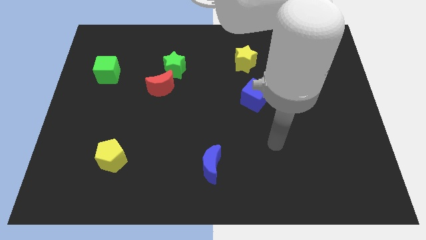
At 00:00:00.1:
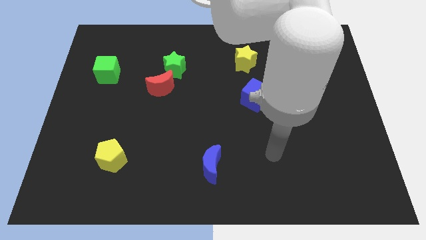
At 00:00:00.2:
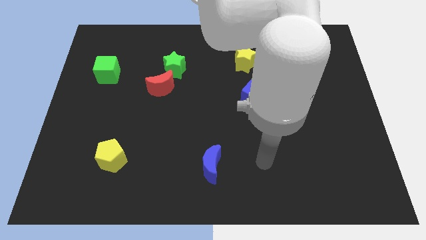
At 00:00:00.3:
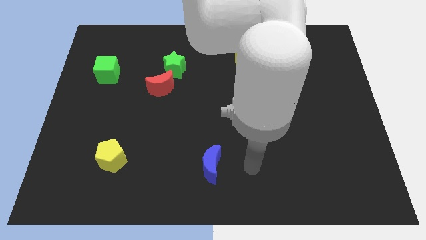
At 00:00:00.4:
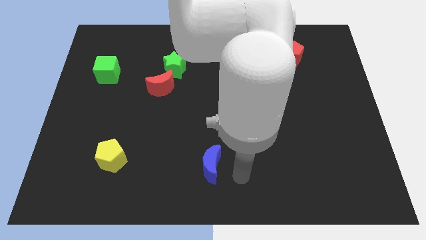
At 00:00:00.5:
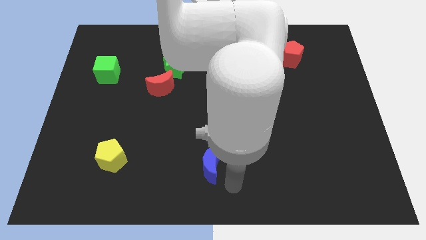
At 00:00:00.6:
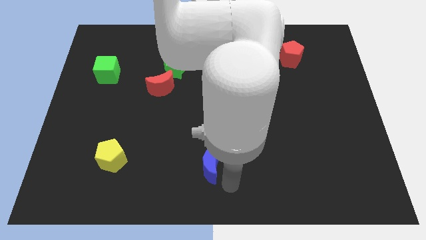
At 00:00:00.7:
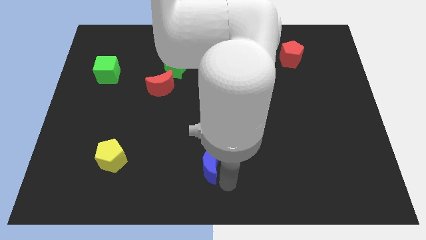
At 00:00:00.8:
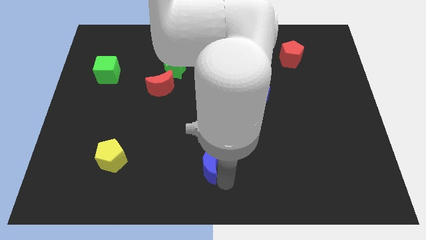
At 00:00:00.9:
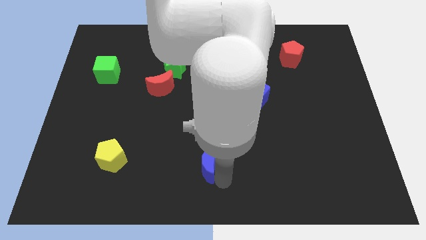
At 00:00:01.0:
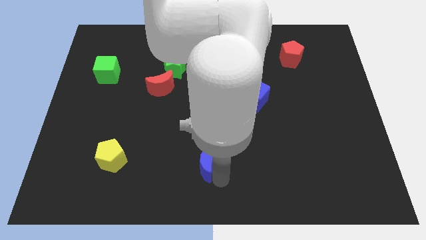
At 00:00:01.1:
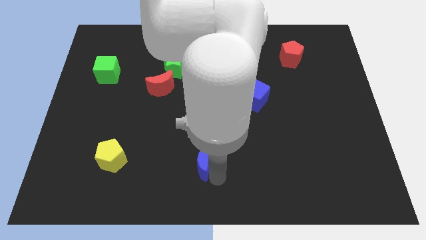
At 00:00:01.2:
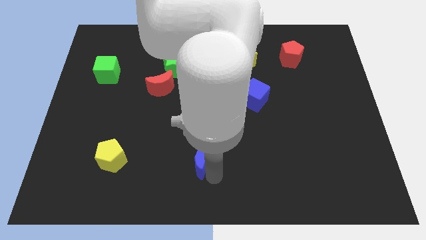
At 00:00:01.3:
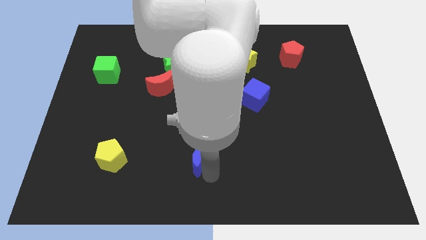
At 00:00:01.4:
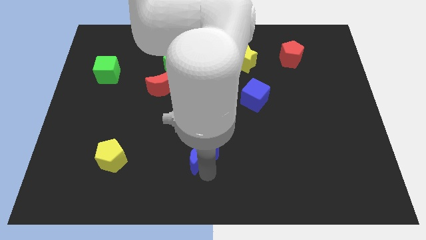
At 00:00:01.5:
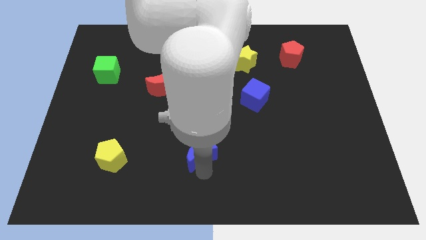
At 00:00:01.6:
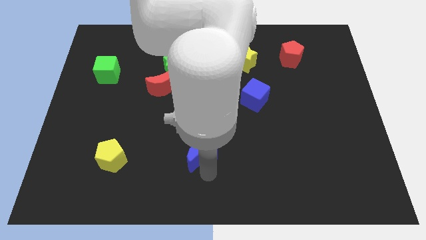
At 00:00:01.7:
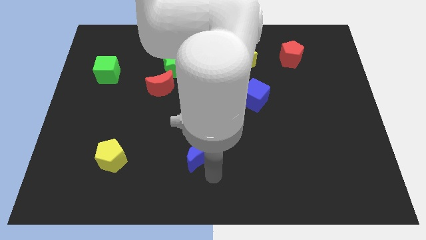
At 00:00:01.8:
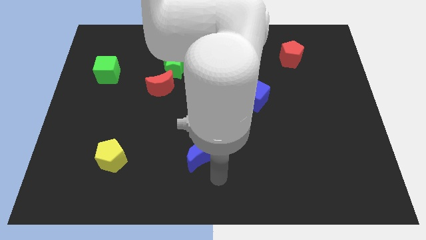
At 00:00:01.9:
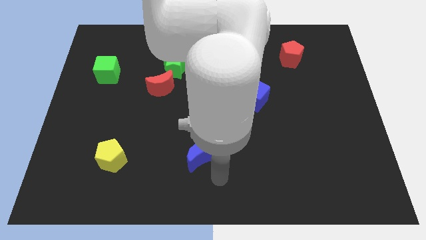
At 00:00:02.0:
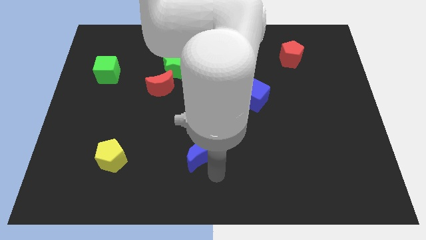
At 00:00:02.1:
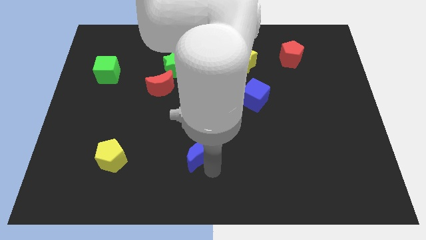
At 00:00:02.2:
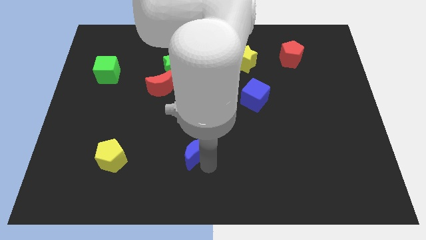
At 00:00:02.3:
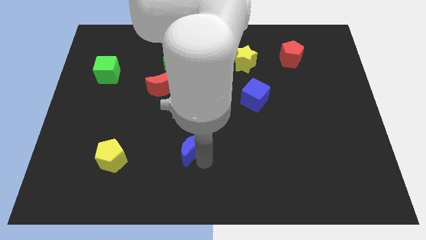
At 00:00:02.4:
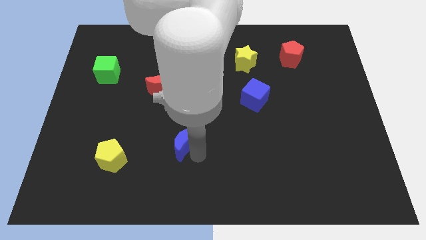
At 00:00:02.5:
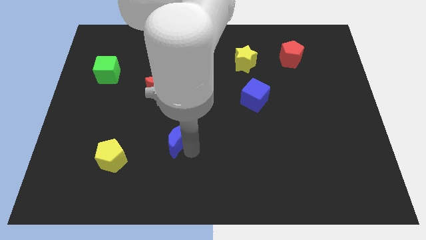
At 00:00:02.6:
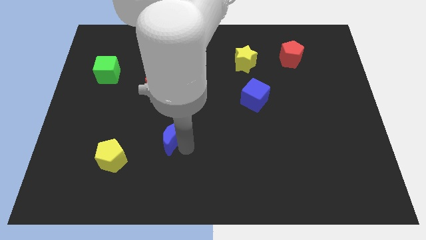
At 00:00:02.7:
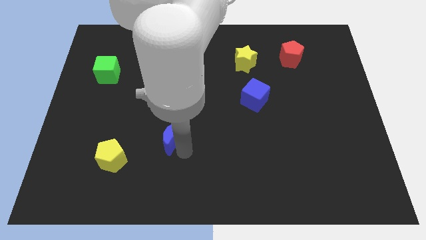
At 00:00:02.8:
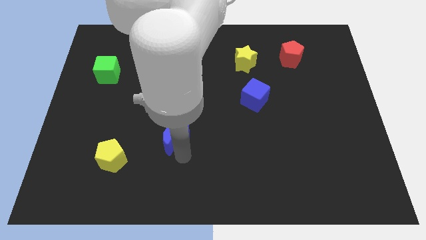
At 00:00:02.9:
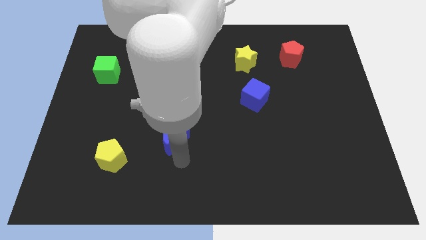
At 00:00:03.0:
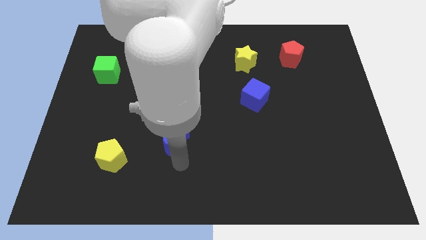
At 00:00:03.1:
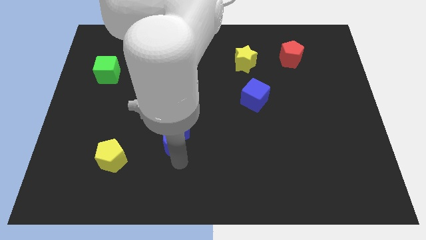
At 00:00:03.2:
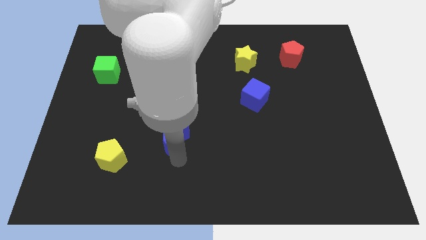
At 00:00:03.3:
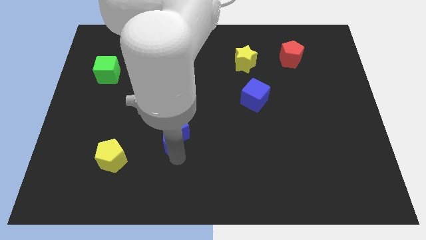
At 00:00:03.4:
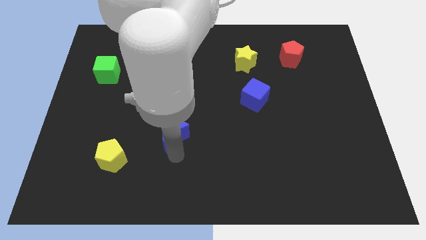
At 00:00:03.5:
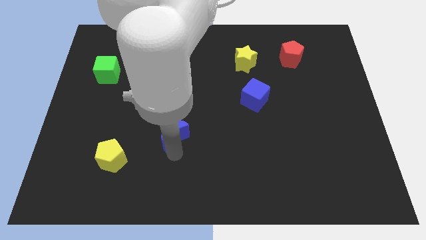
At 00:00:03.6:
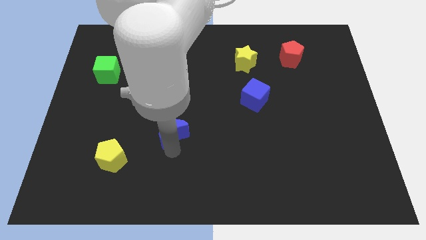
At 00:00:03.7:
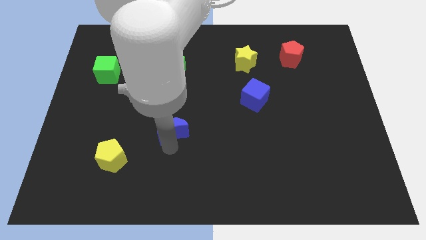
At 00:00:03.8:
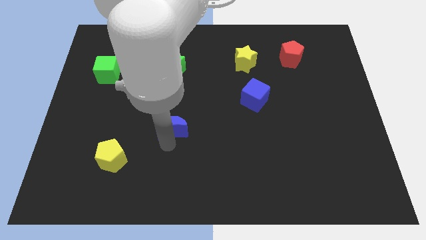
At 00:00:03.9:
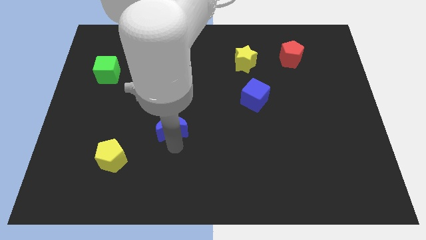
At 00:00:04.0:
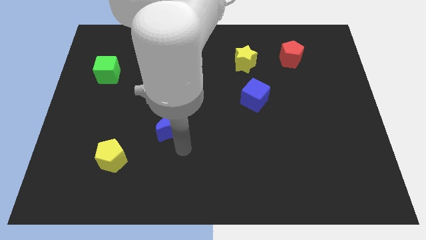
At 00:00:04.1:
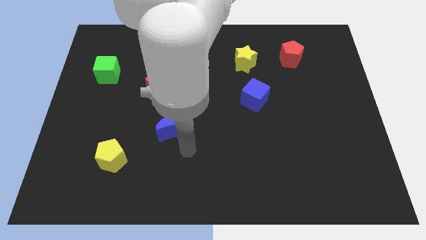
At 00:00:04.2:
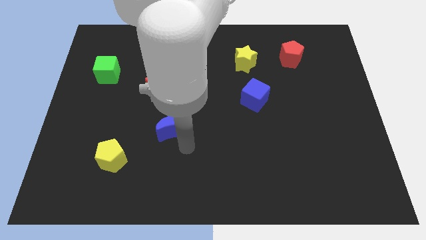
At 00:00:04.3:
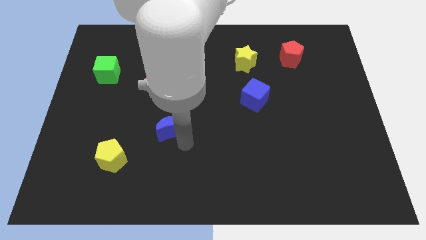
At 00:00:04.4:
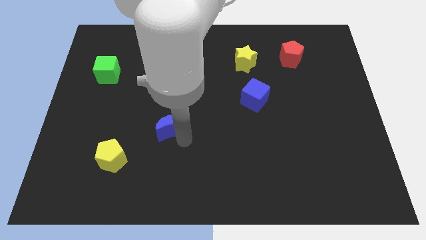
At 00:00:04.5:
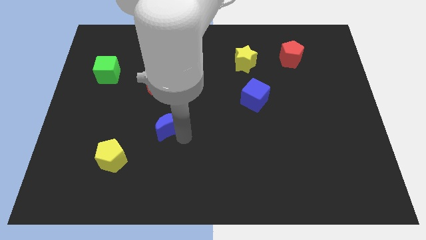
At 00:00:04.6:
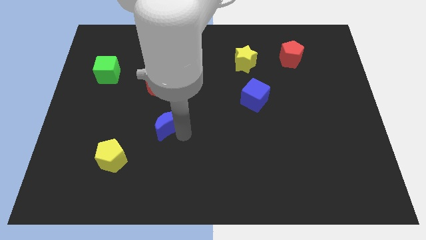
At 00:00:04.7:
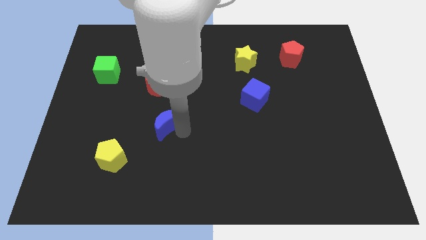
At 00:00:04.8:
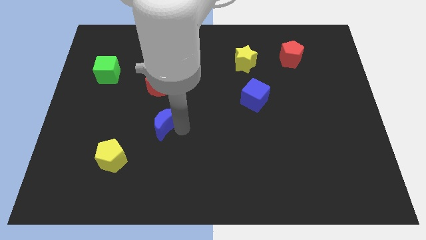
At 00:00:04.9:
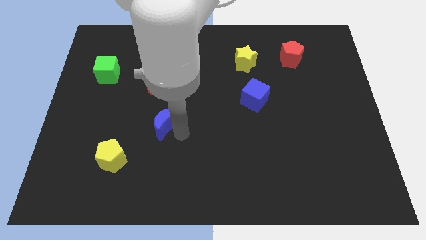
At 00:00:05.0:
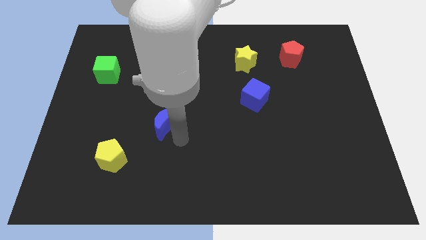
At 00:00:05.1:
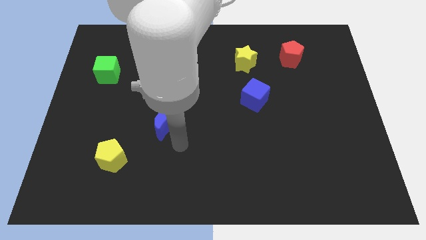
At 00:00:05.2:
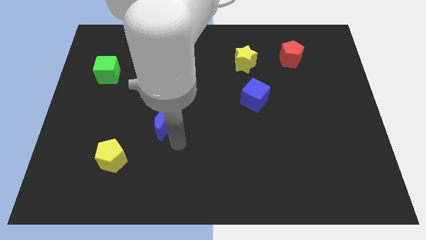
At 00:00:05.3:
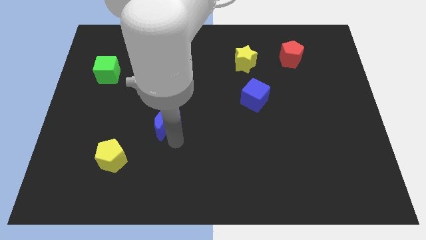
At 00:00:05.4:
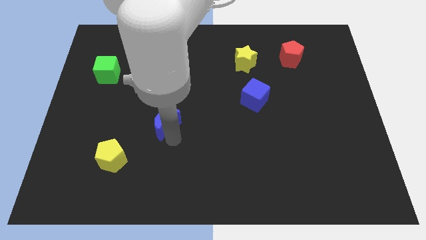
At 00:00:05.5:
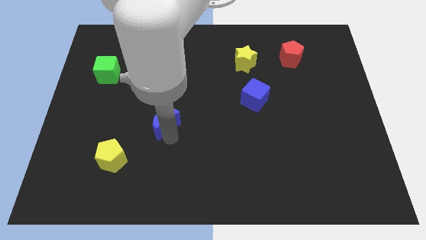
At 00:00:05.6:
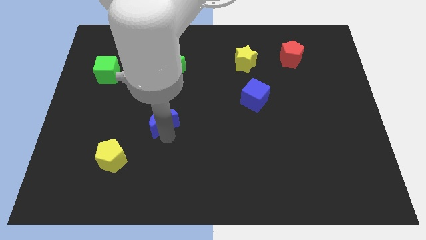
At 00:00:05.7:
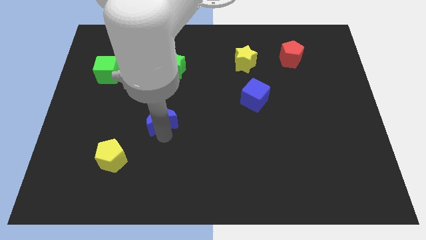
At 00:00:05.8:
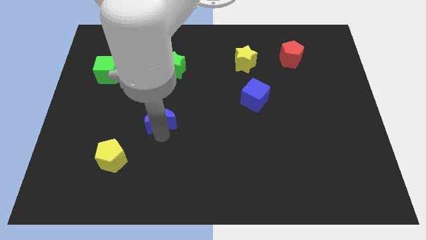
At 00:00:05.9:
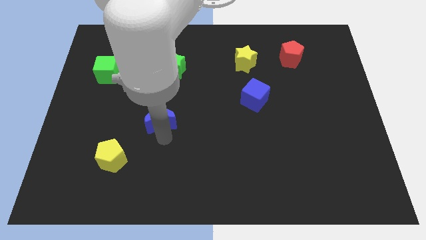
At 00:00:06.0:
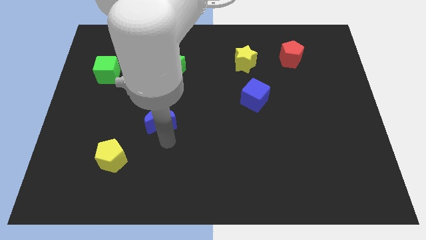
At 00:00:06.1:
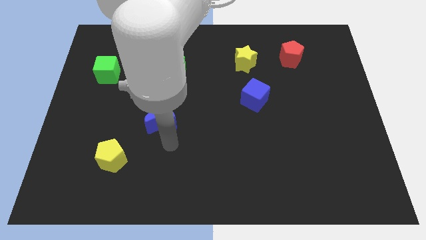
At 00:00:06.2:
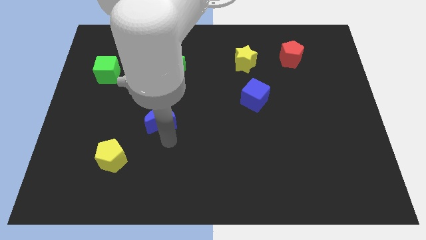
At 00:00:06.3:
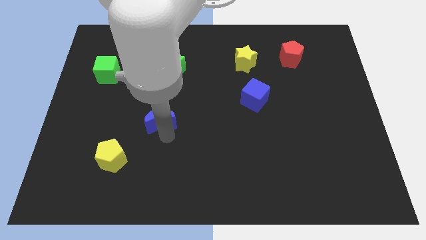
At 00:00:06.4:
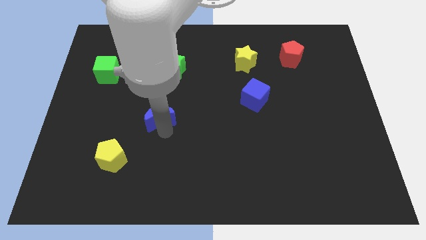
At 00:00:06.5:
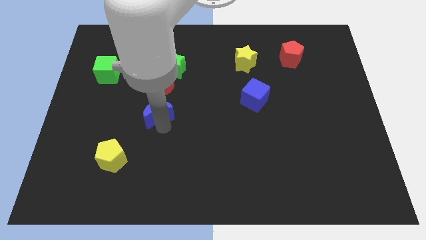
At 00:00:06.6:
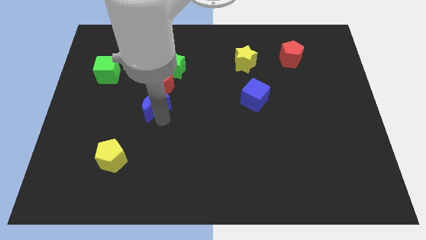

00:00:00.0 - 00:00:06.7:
push the blue moon diagonally upwards and to the left

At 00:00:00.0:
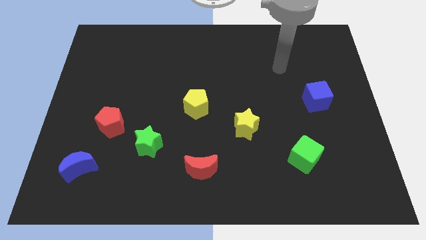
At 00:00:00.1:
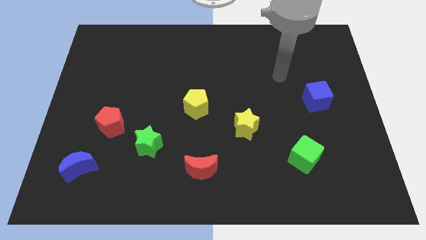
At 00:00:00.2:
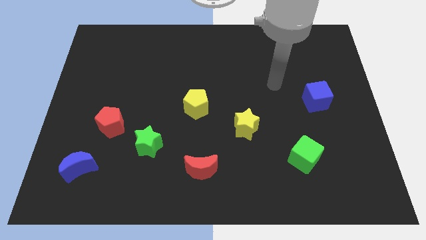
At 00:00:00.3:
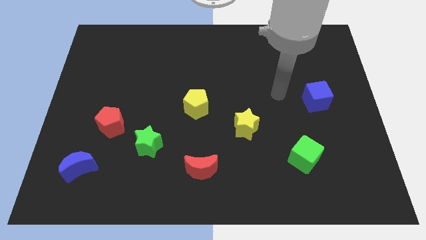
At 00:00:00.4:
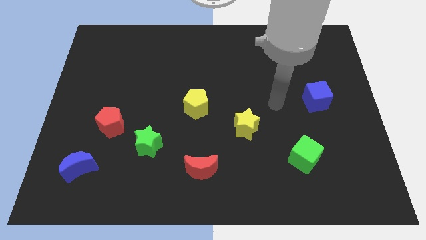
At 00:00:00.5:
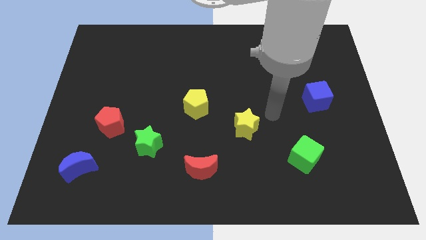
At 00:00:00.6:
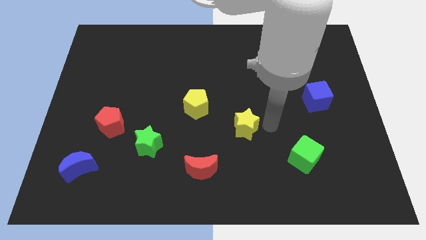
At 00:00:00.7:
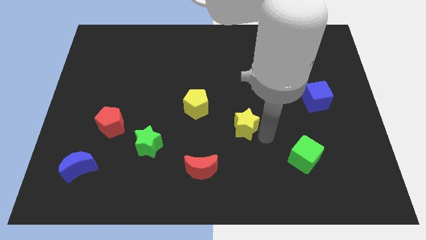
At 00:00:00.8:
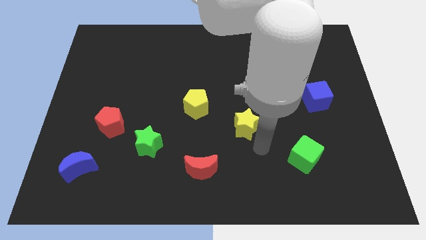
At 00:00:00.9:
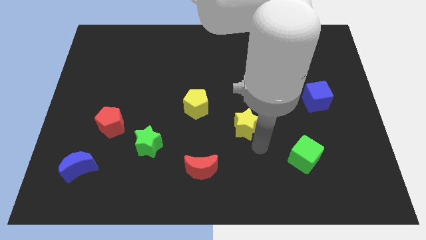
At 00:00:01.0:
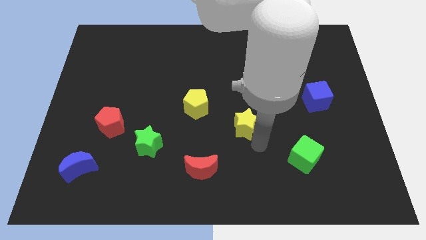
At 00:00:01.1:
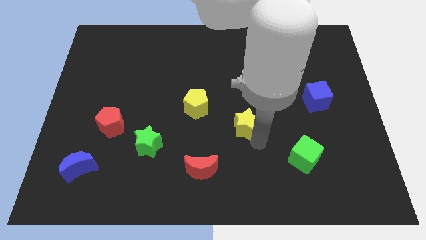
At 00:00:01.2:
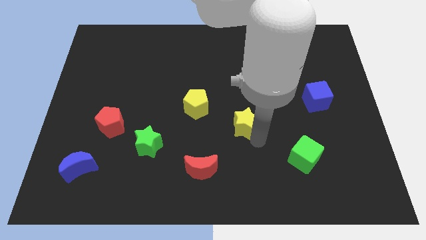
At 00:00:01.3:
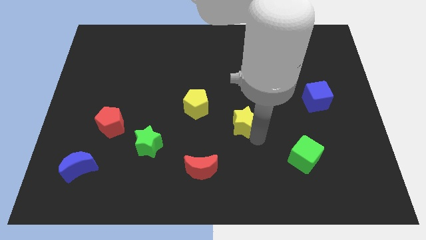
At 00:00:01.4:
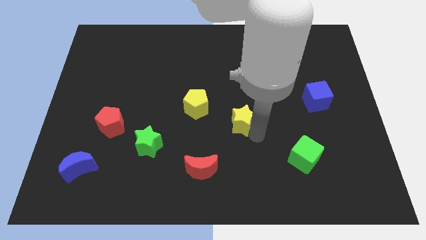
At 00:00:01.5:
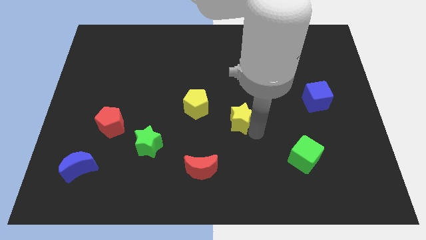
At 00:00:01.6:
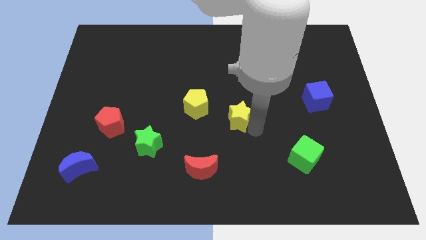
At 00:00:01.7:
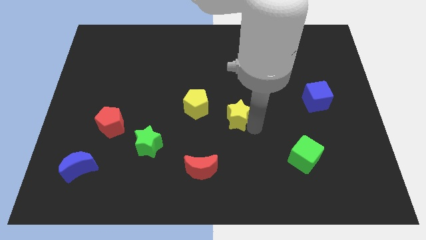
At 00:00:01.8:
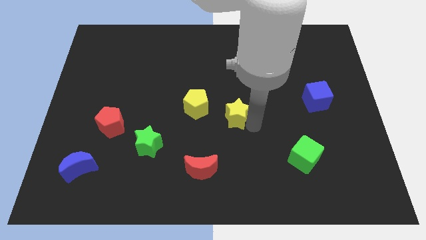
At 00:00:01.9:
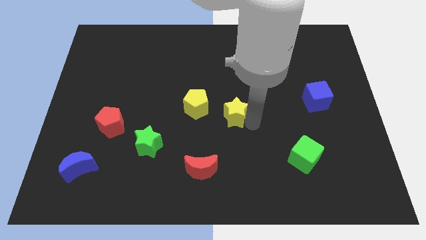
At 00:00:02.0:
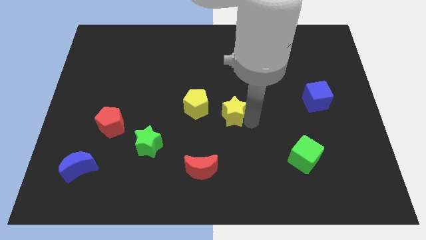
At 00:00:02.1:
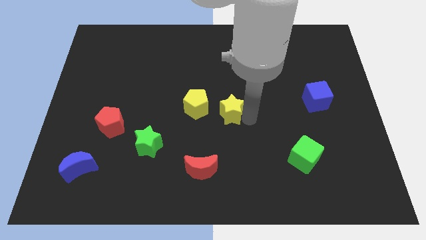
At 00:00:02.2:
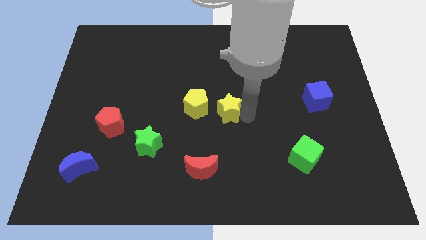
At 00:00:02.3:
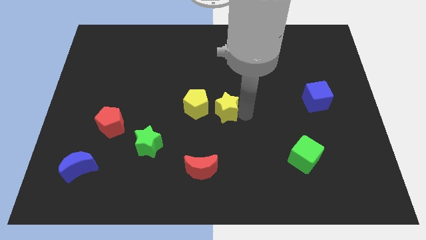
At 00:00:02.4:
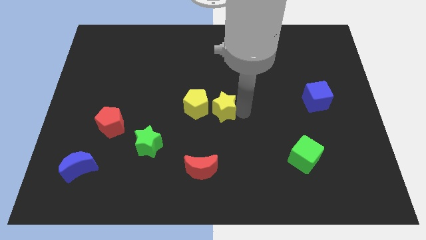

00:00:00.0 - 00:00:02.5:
slightly move the yellow star up and to the left diagonally
